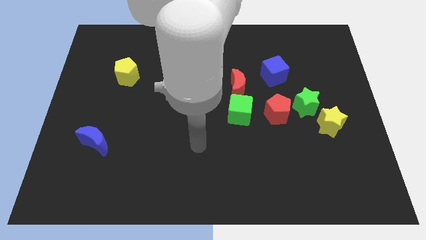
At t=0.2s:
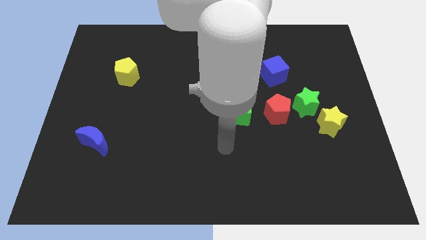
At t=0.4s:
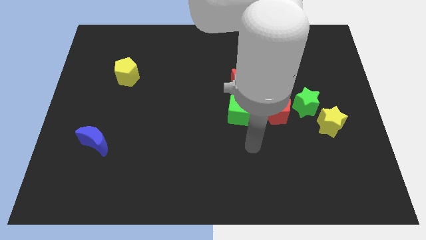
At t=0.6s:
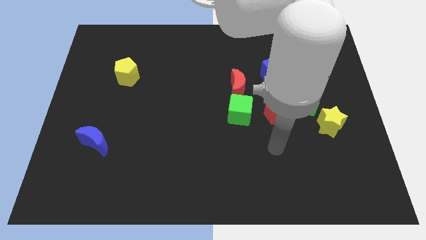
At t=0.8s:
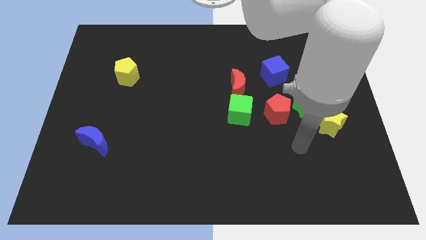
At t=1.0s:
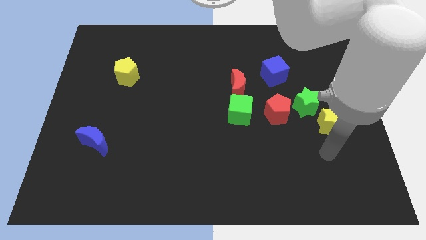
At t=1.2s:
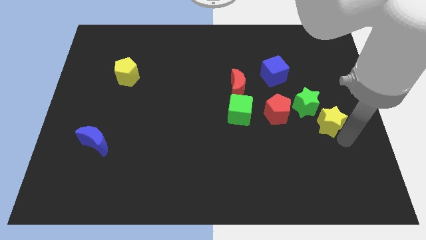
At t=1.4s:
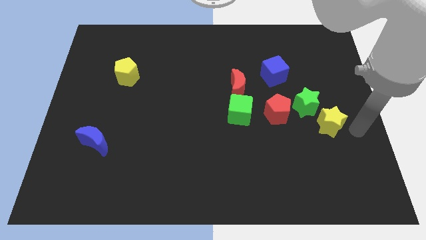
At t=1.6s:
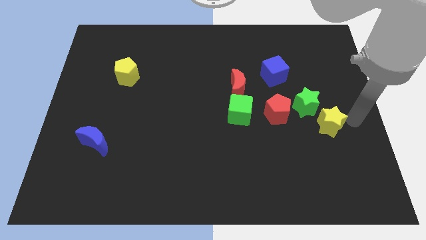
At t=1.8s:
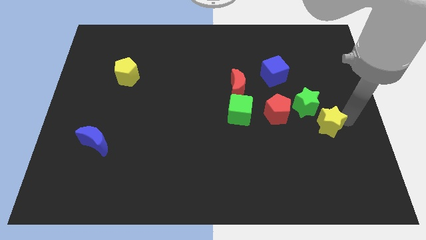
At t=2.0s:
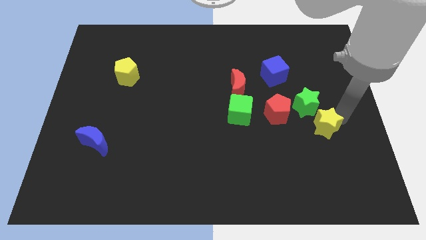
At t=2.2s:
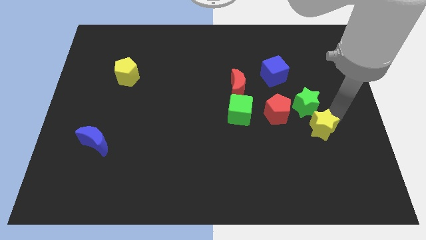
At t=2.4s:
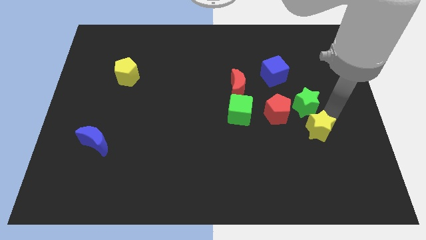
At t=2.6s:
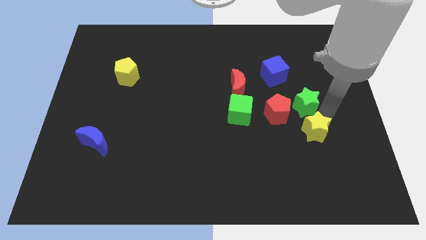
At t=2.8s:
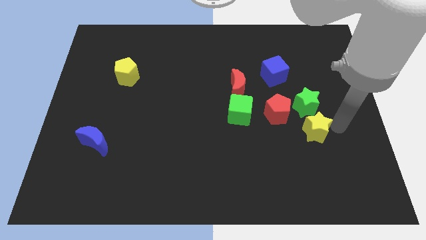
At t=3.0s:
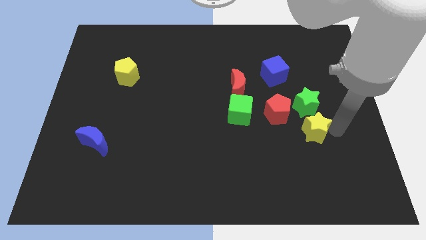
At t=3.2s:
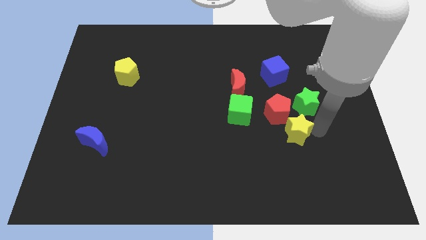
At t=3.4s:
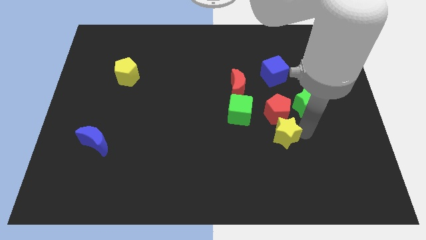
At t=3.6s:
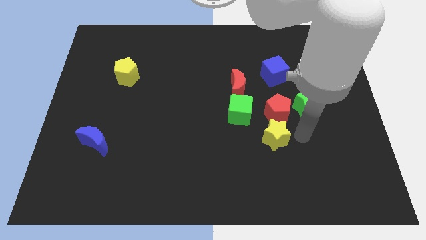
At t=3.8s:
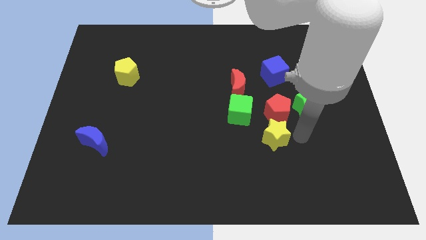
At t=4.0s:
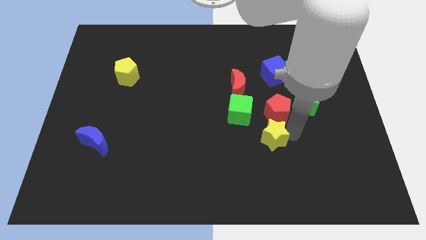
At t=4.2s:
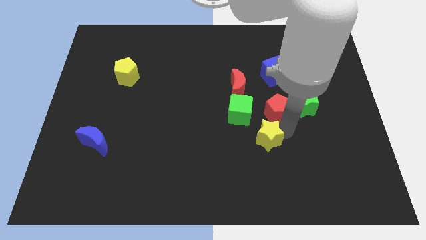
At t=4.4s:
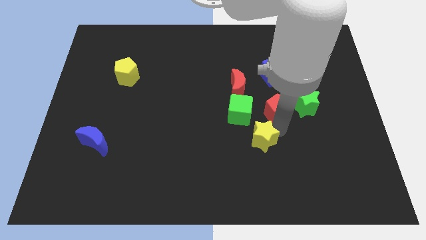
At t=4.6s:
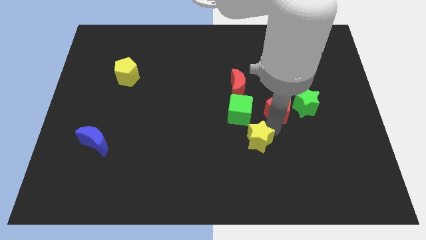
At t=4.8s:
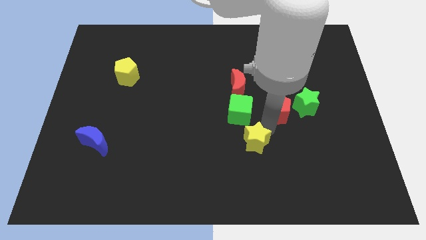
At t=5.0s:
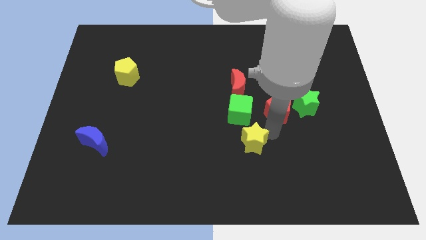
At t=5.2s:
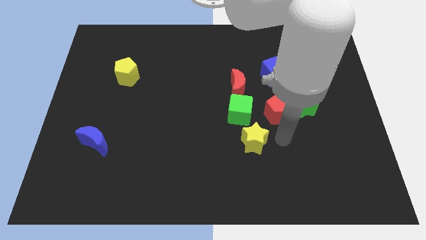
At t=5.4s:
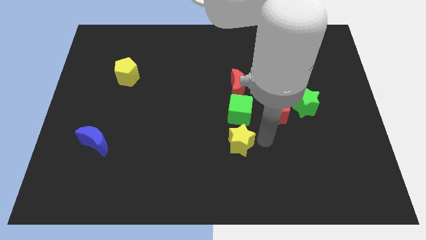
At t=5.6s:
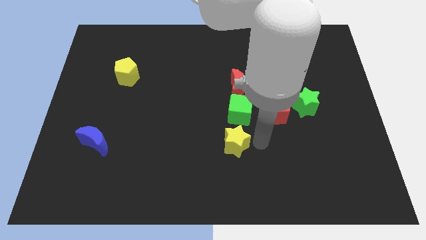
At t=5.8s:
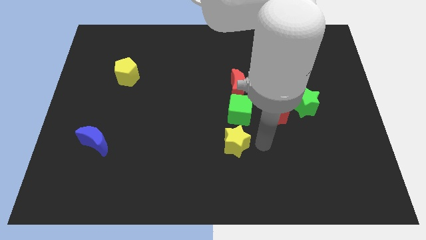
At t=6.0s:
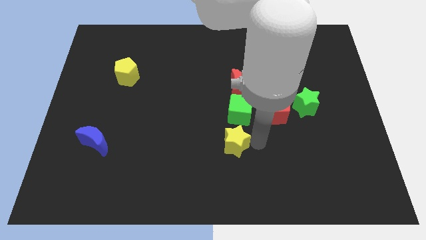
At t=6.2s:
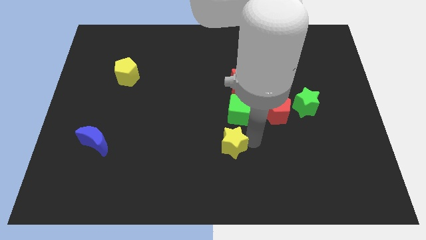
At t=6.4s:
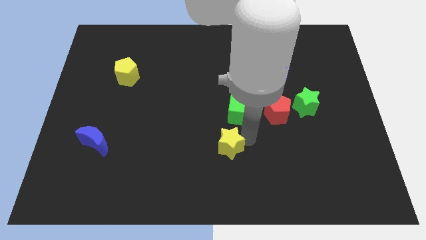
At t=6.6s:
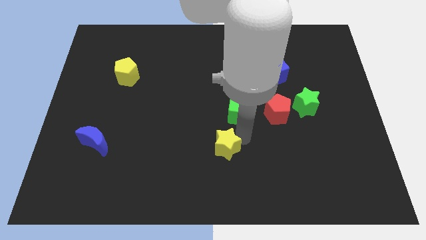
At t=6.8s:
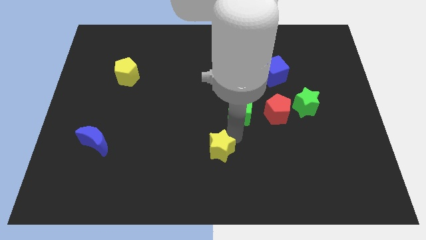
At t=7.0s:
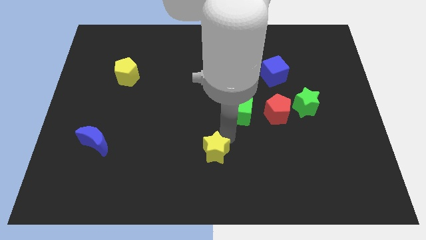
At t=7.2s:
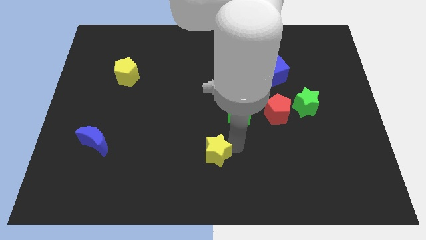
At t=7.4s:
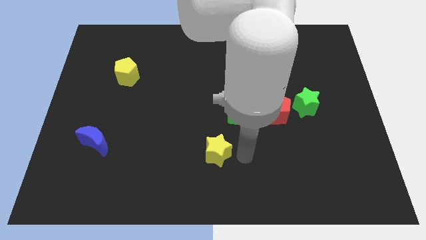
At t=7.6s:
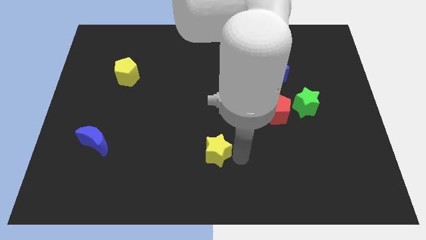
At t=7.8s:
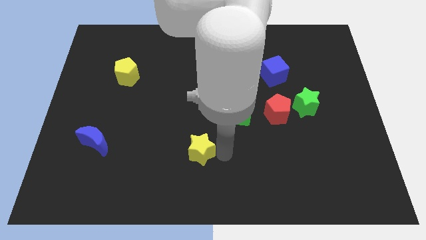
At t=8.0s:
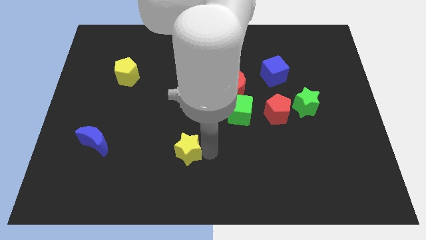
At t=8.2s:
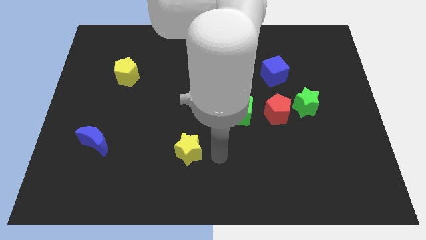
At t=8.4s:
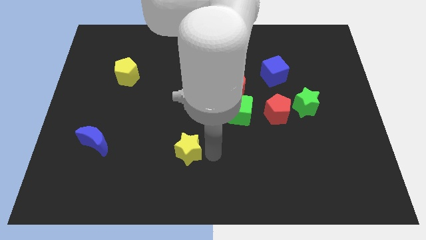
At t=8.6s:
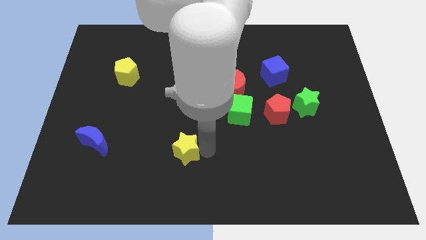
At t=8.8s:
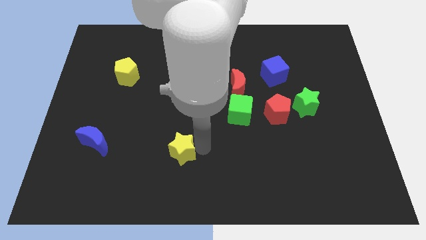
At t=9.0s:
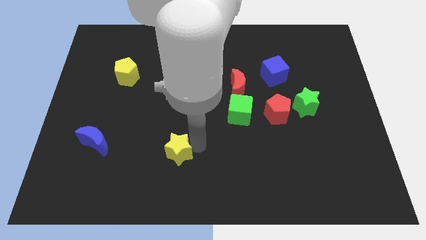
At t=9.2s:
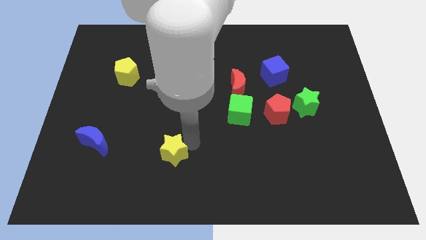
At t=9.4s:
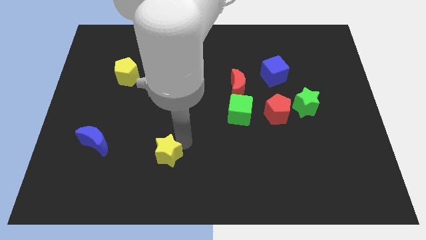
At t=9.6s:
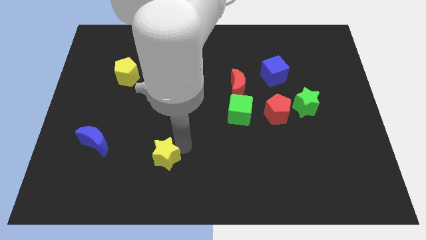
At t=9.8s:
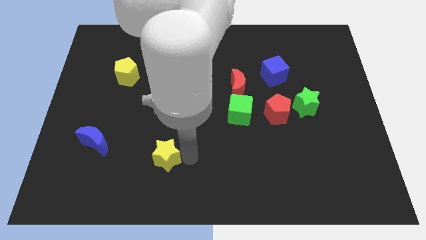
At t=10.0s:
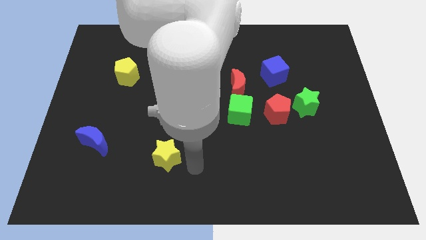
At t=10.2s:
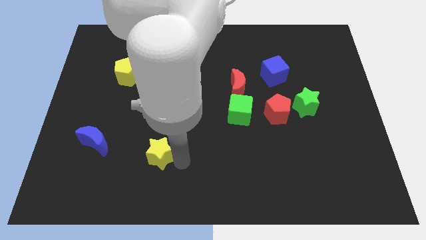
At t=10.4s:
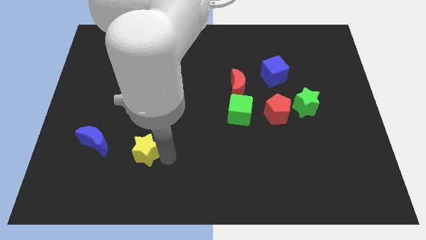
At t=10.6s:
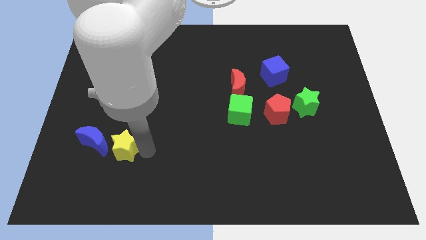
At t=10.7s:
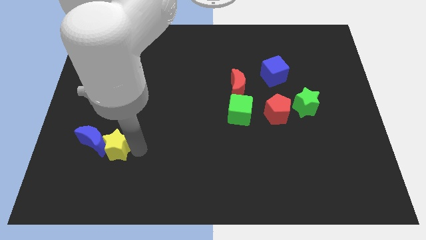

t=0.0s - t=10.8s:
slide the yellow star to the blue moon

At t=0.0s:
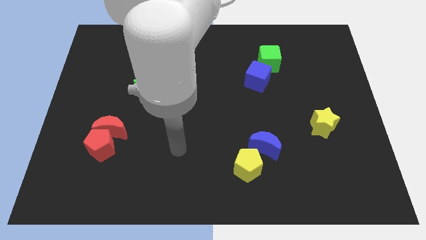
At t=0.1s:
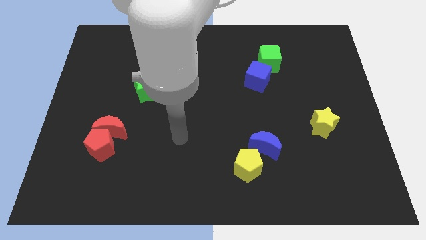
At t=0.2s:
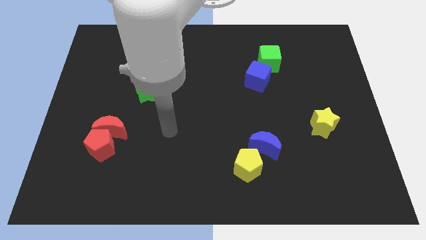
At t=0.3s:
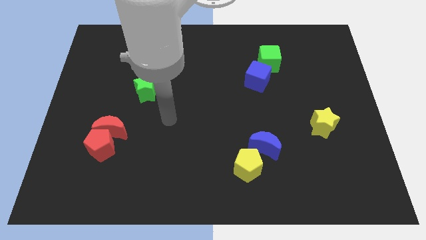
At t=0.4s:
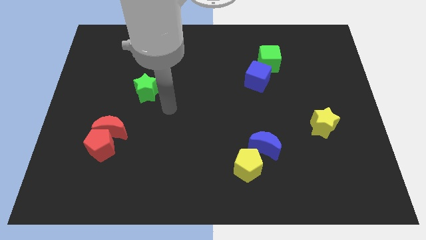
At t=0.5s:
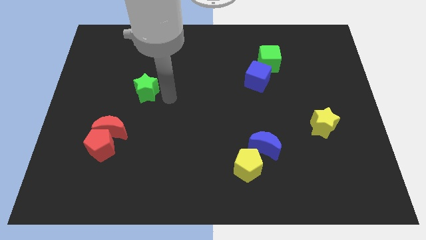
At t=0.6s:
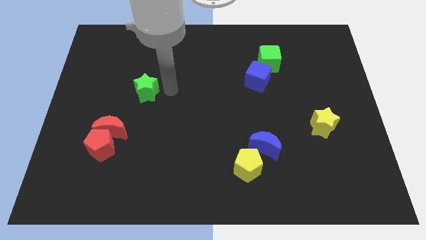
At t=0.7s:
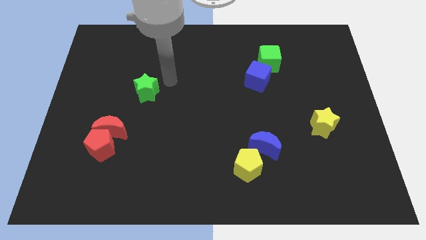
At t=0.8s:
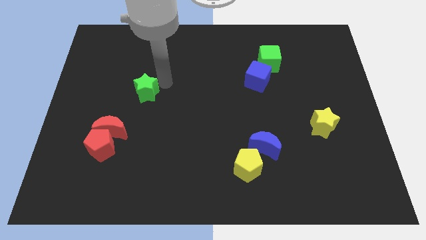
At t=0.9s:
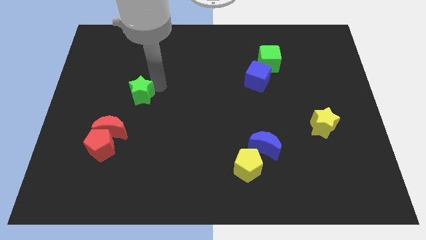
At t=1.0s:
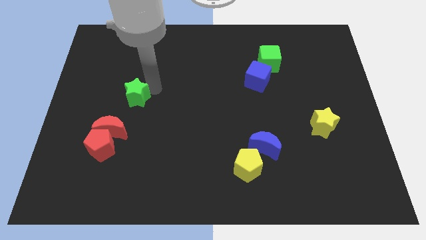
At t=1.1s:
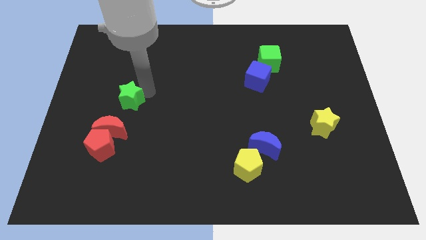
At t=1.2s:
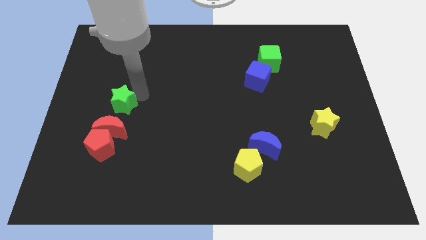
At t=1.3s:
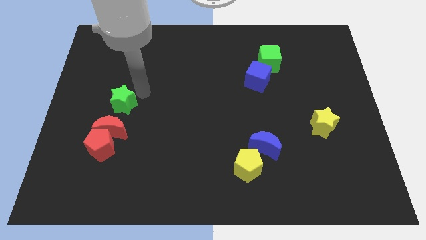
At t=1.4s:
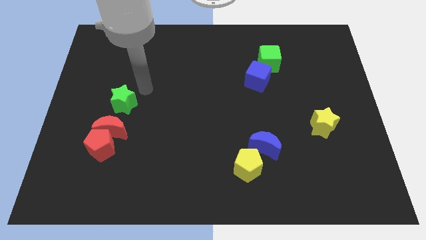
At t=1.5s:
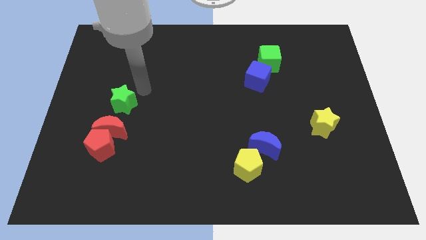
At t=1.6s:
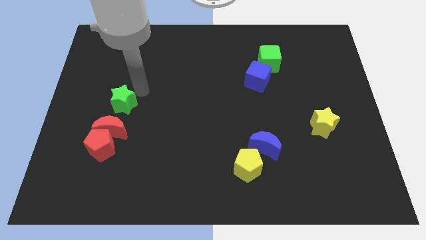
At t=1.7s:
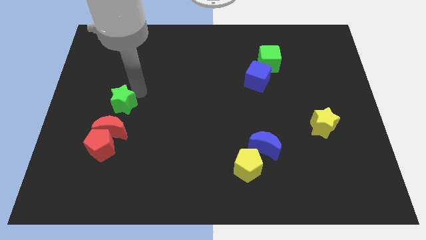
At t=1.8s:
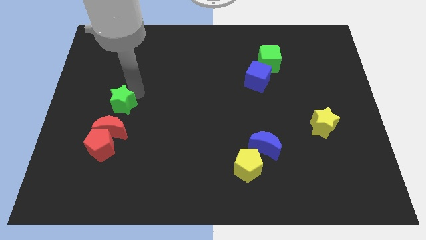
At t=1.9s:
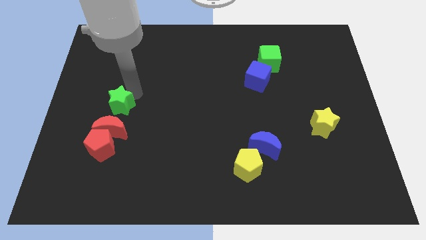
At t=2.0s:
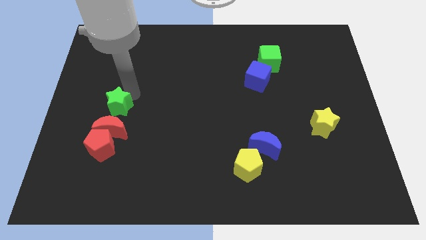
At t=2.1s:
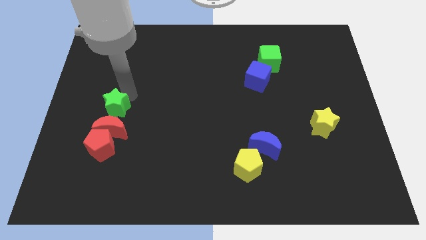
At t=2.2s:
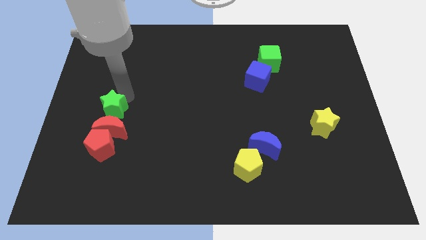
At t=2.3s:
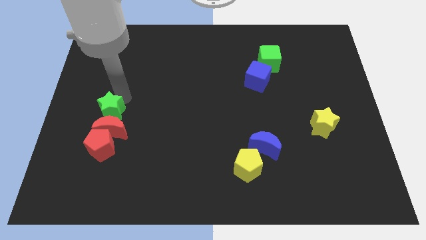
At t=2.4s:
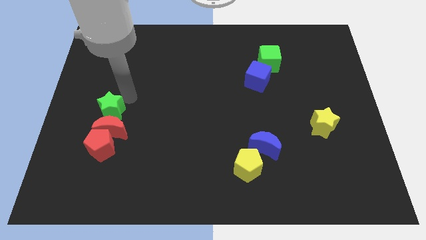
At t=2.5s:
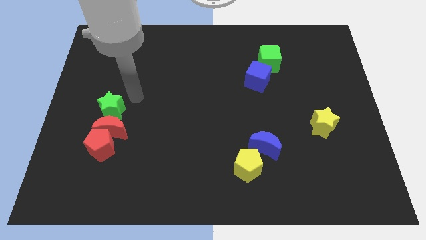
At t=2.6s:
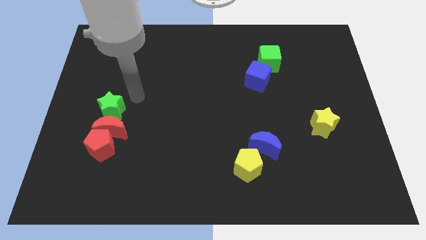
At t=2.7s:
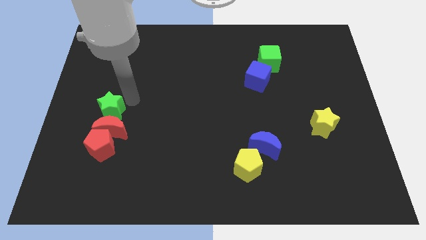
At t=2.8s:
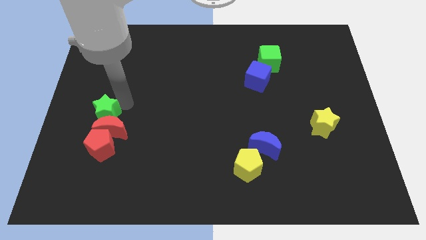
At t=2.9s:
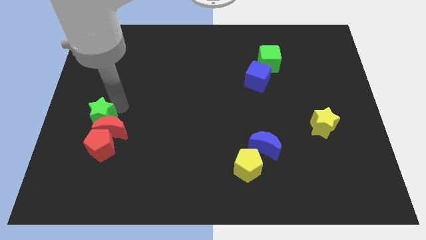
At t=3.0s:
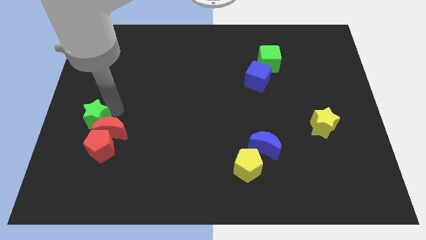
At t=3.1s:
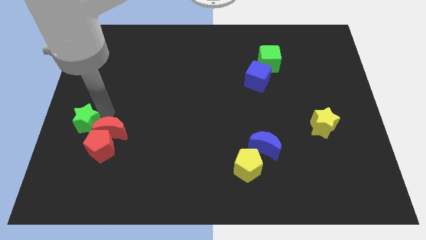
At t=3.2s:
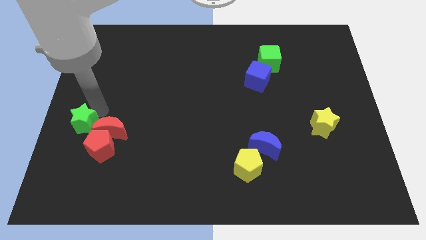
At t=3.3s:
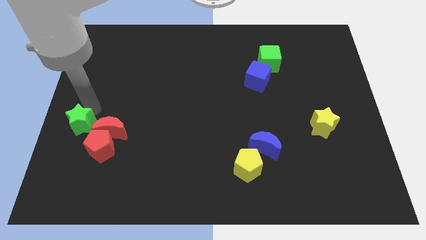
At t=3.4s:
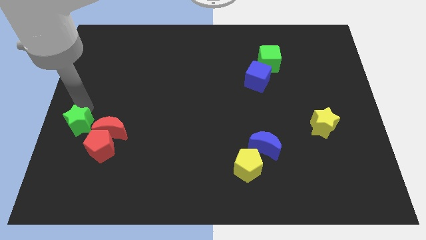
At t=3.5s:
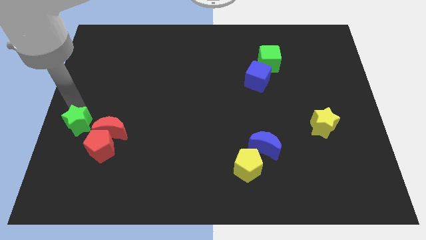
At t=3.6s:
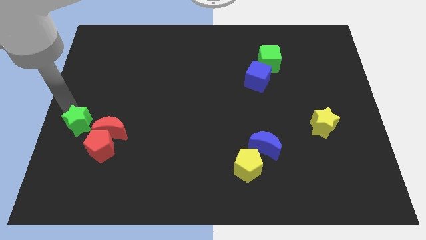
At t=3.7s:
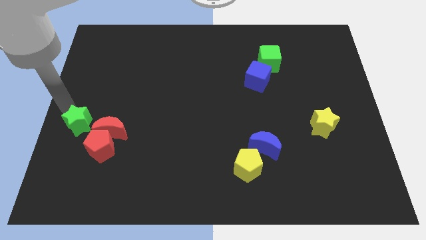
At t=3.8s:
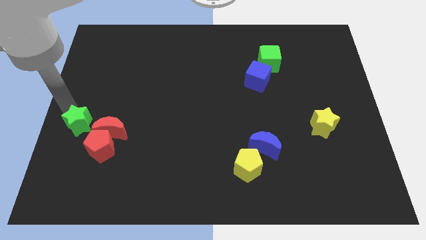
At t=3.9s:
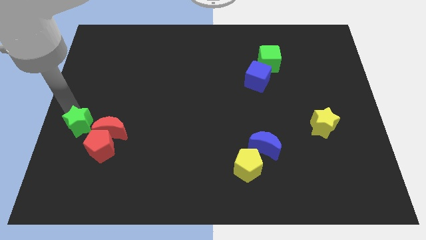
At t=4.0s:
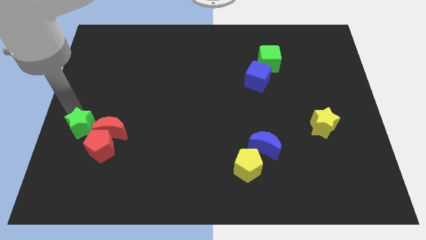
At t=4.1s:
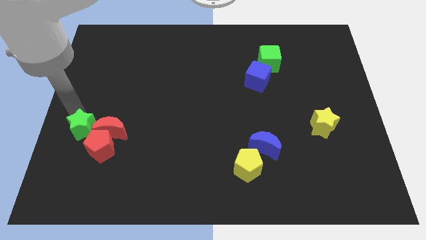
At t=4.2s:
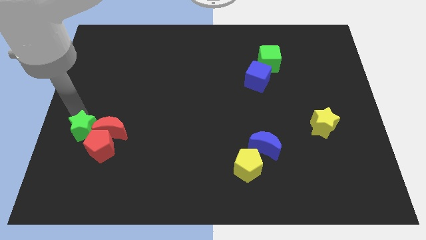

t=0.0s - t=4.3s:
push the green star to the red pentagon
